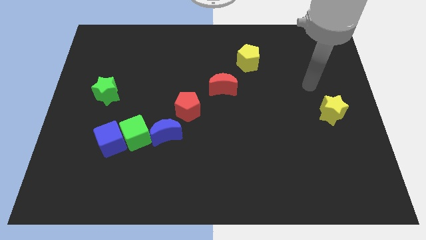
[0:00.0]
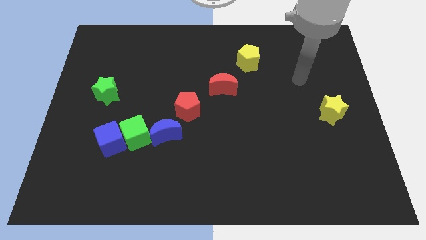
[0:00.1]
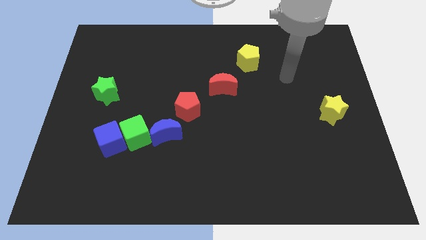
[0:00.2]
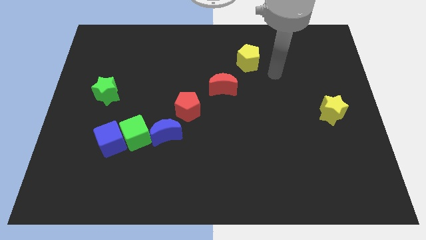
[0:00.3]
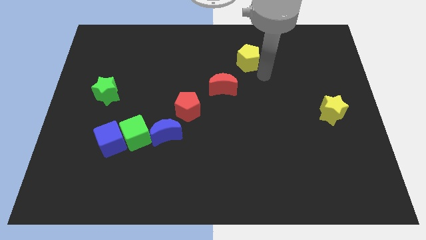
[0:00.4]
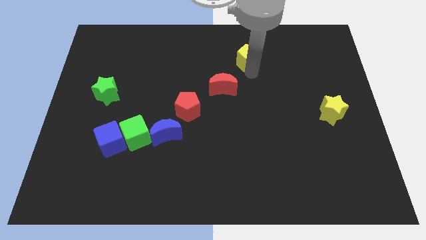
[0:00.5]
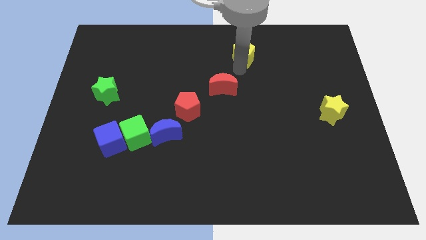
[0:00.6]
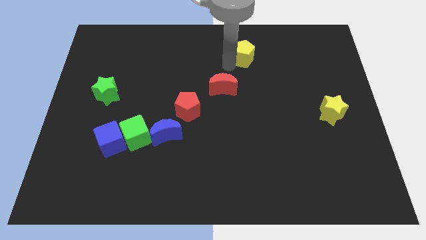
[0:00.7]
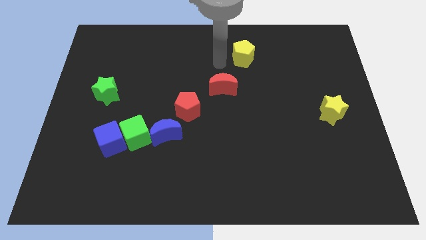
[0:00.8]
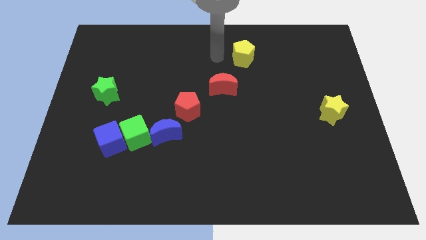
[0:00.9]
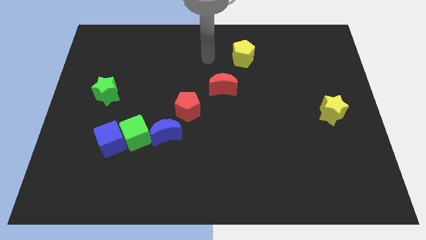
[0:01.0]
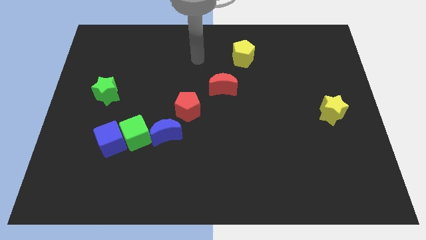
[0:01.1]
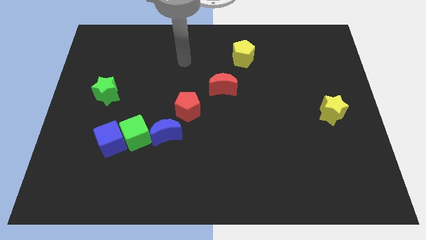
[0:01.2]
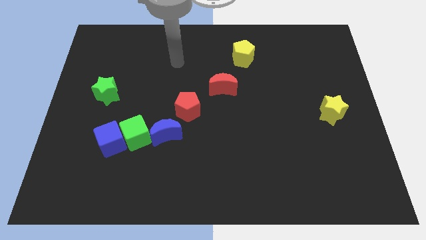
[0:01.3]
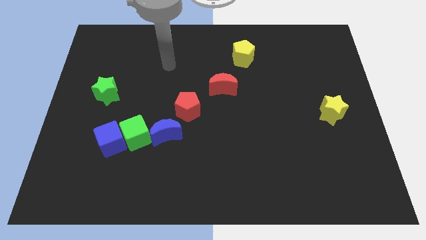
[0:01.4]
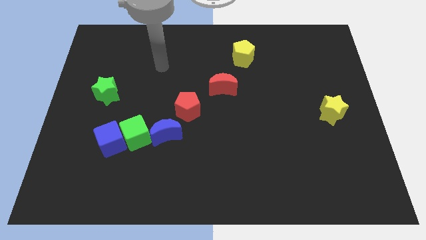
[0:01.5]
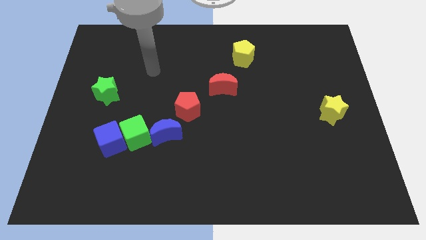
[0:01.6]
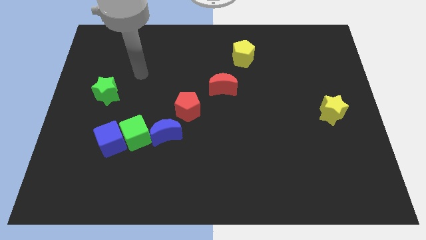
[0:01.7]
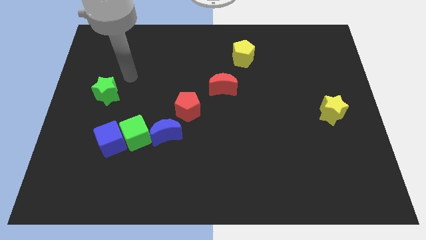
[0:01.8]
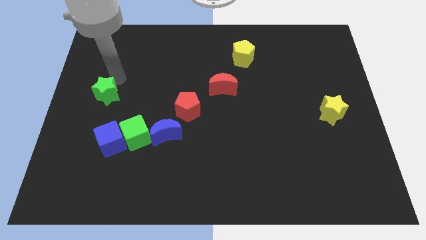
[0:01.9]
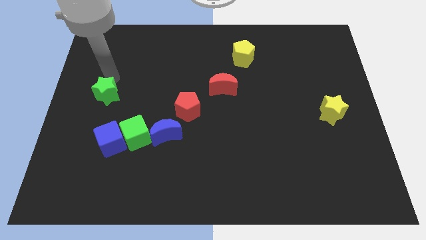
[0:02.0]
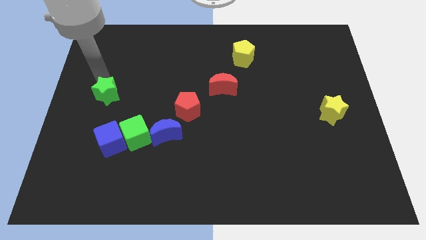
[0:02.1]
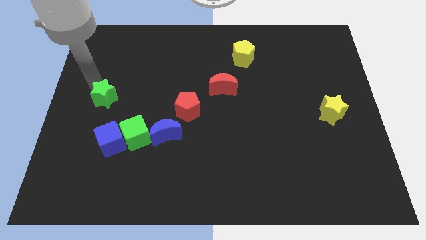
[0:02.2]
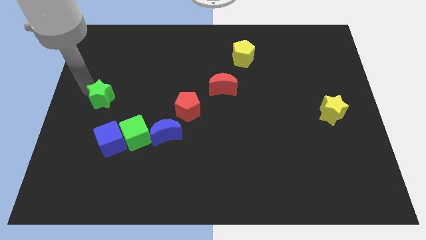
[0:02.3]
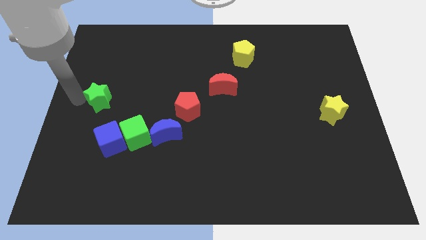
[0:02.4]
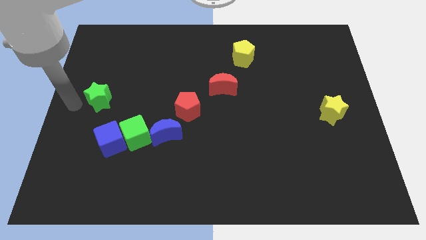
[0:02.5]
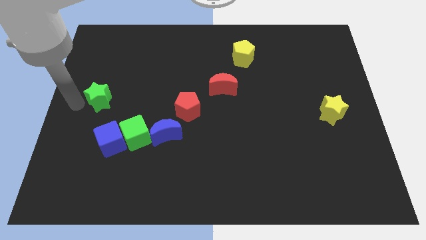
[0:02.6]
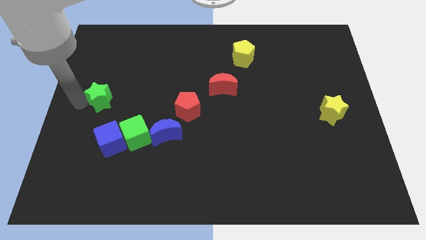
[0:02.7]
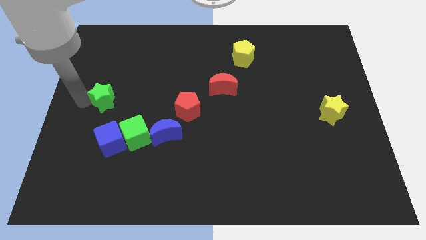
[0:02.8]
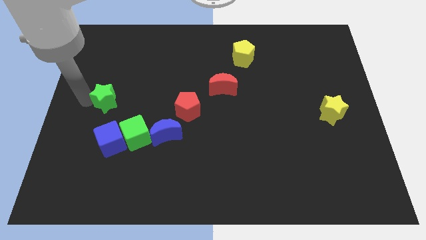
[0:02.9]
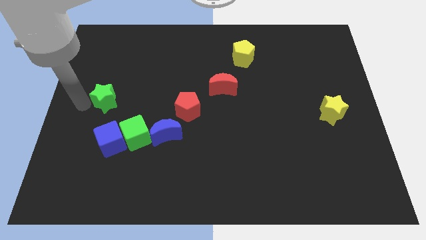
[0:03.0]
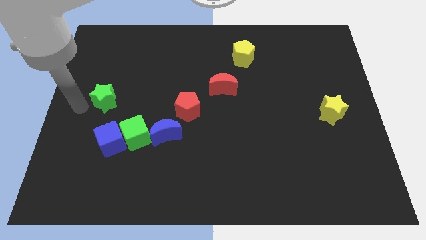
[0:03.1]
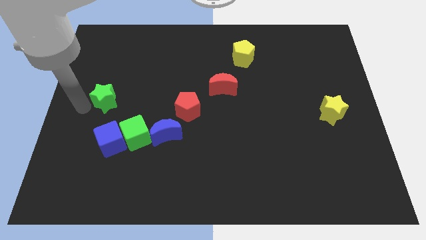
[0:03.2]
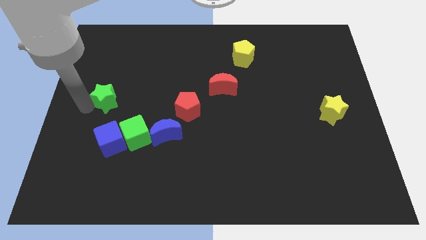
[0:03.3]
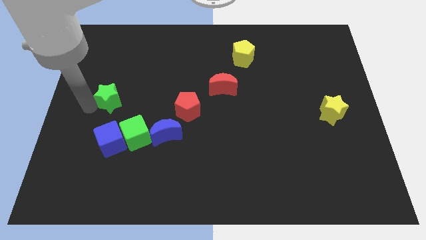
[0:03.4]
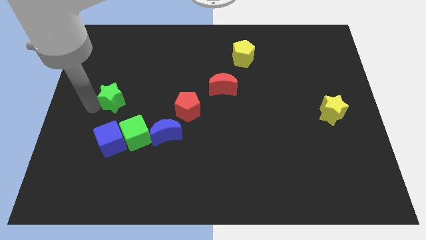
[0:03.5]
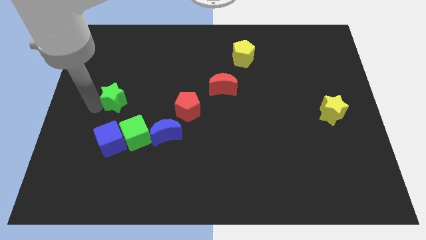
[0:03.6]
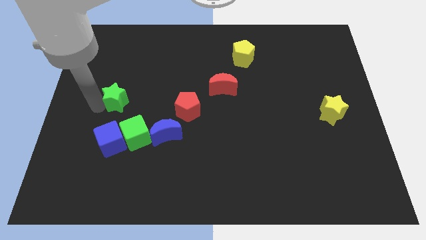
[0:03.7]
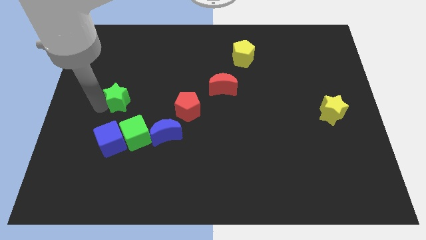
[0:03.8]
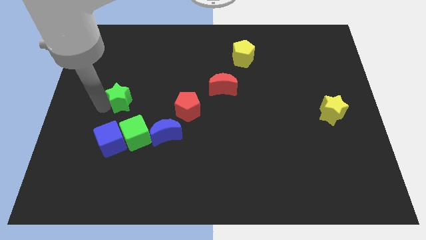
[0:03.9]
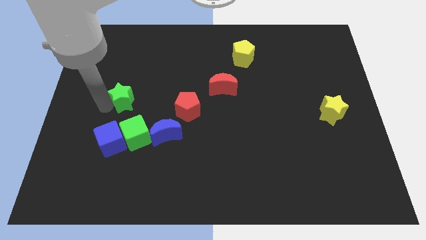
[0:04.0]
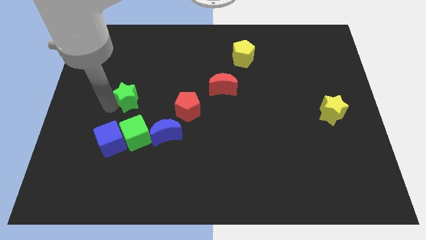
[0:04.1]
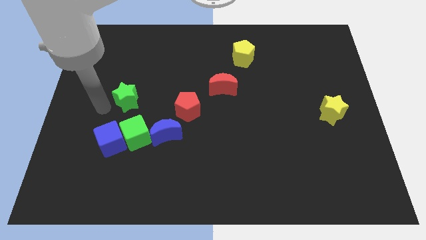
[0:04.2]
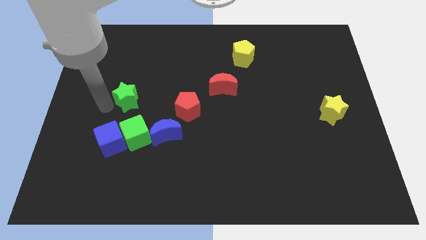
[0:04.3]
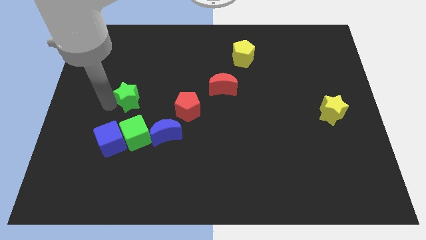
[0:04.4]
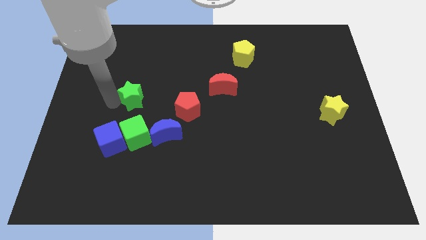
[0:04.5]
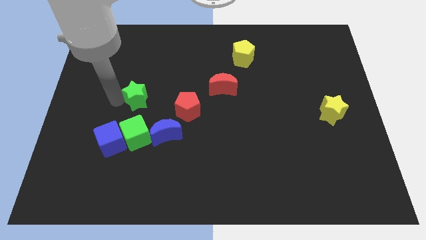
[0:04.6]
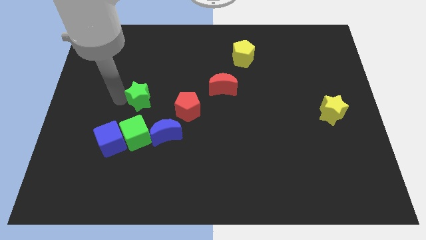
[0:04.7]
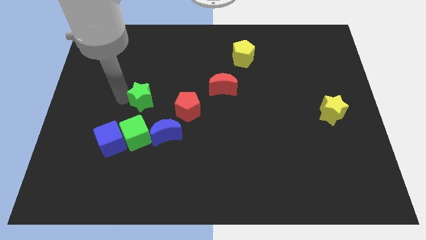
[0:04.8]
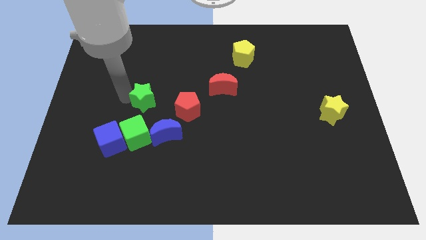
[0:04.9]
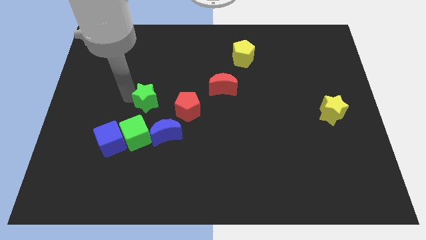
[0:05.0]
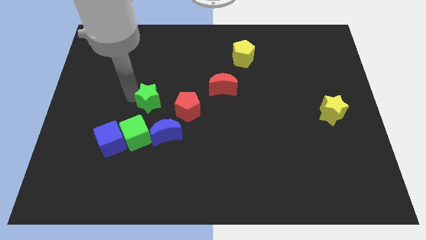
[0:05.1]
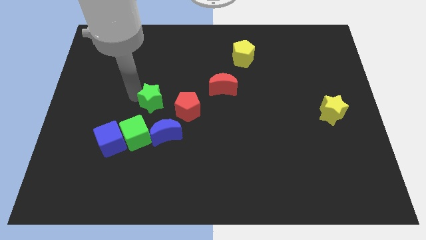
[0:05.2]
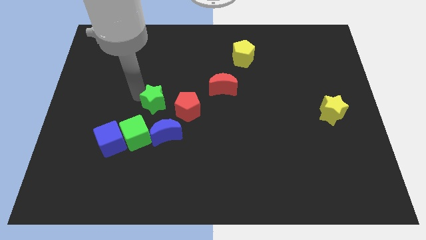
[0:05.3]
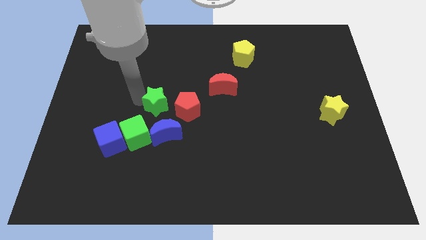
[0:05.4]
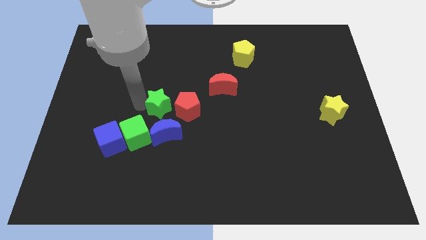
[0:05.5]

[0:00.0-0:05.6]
push the green star to the center of the board

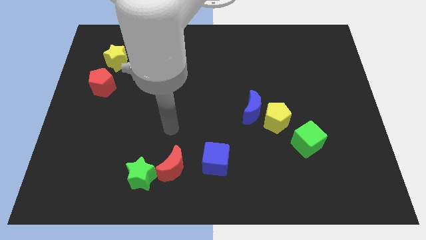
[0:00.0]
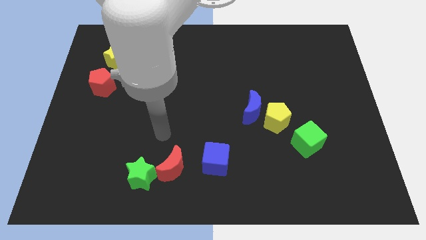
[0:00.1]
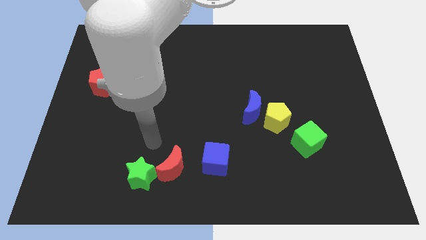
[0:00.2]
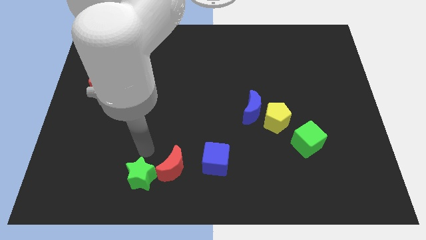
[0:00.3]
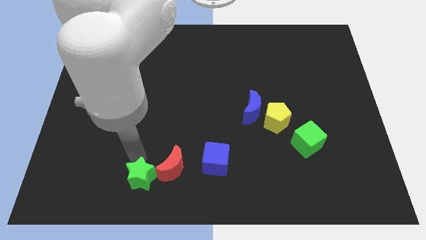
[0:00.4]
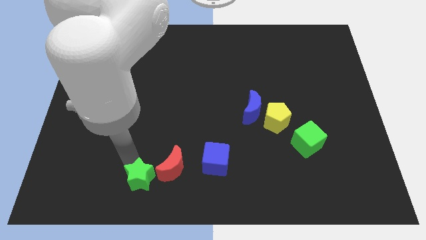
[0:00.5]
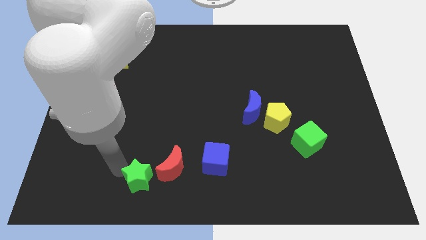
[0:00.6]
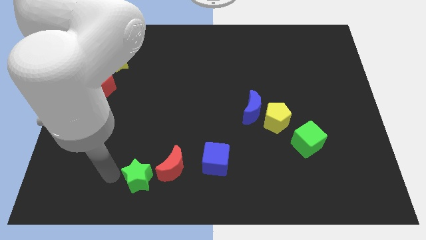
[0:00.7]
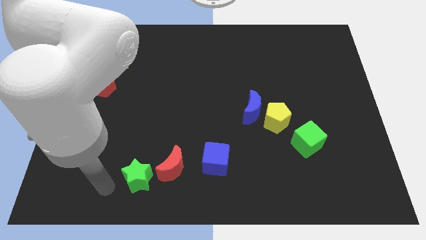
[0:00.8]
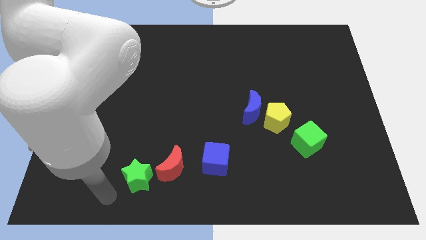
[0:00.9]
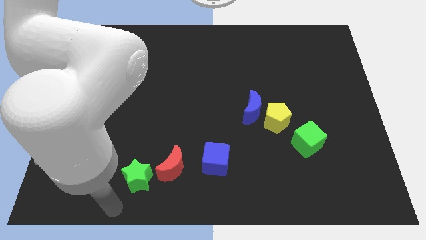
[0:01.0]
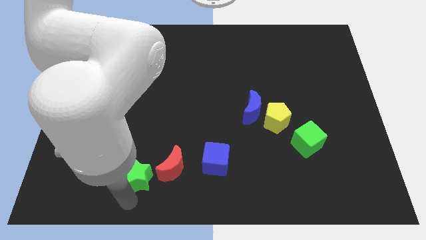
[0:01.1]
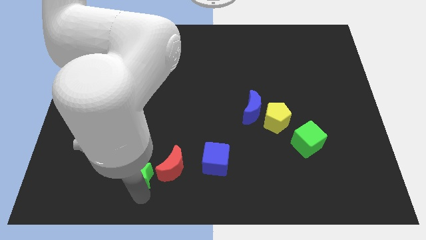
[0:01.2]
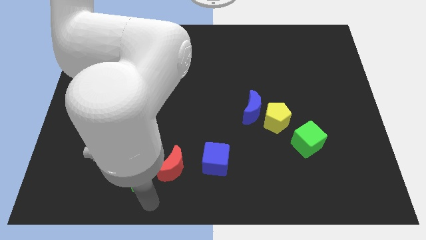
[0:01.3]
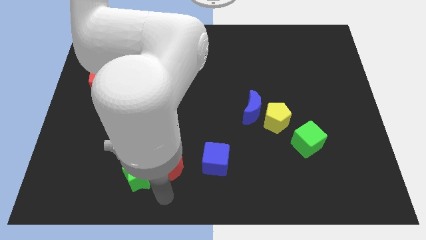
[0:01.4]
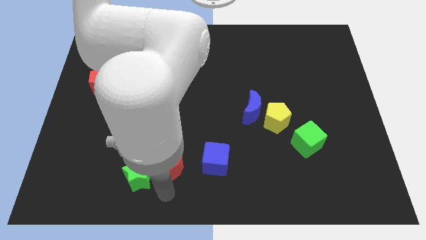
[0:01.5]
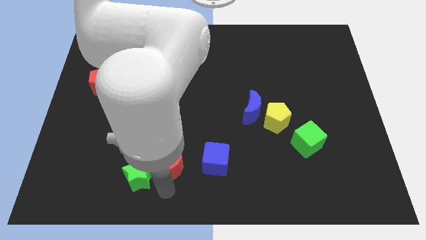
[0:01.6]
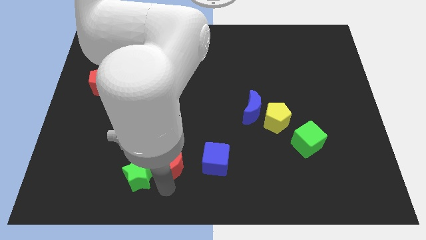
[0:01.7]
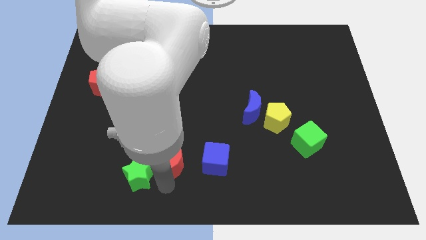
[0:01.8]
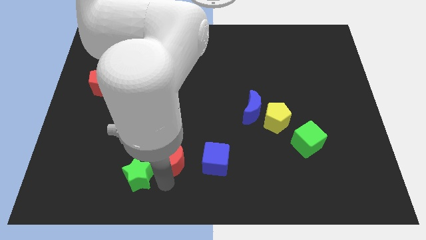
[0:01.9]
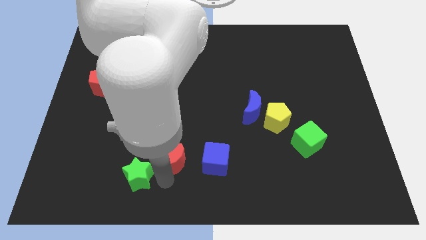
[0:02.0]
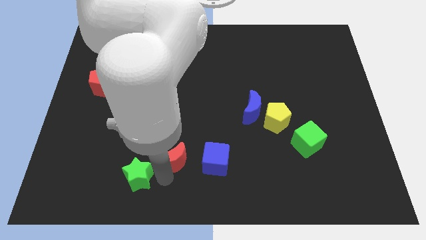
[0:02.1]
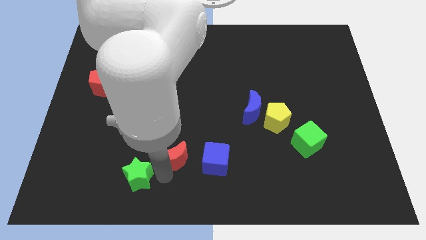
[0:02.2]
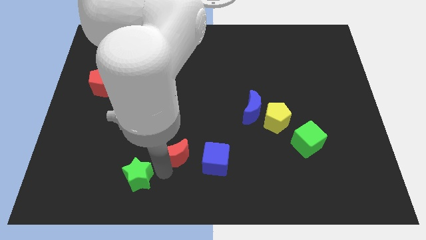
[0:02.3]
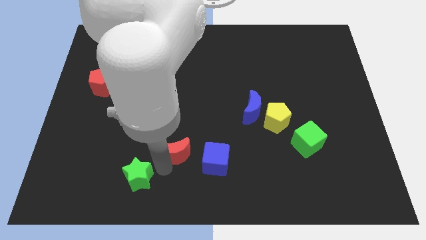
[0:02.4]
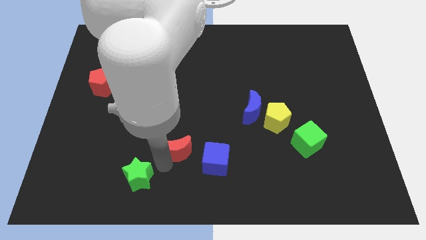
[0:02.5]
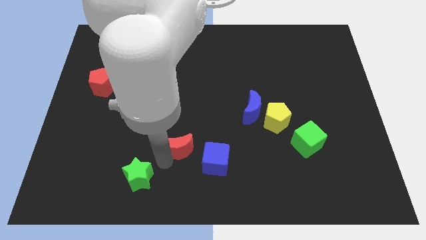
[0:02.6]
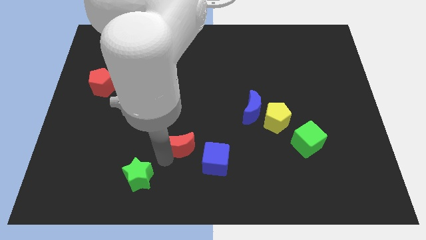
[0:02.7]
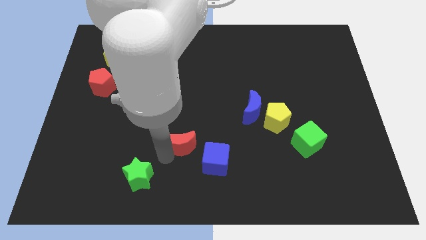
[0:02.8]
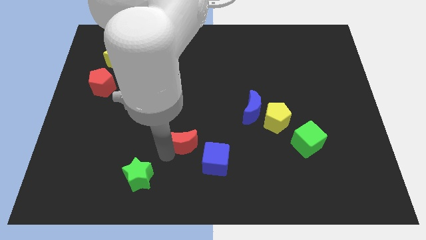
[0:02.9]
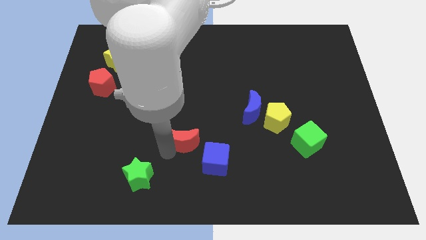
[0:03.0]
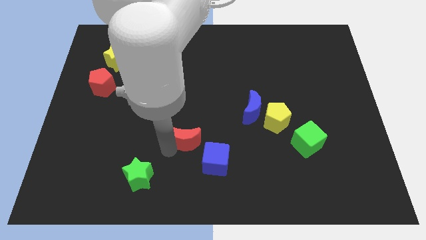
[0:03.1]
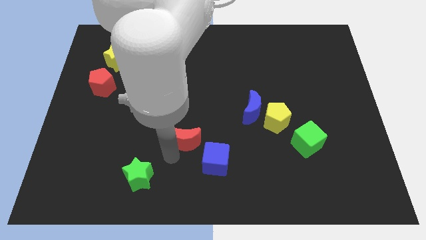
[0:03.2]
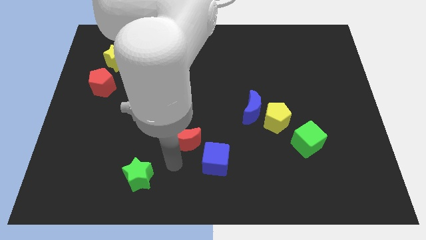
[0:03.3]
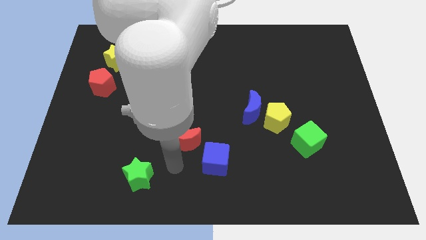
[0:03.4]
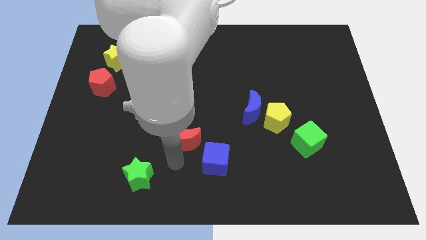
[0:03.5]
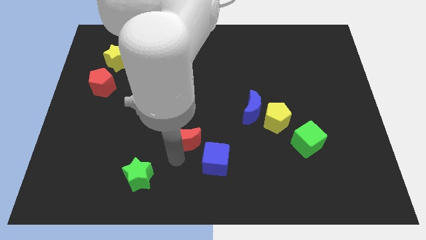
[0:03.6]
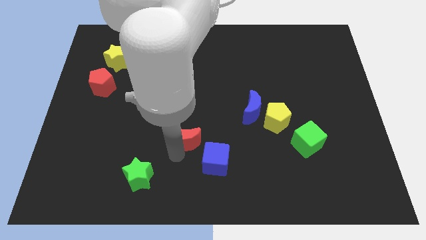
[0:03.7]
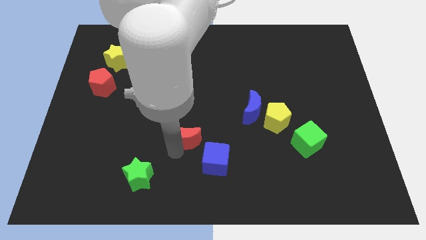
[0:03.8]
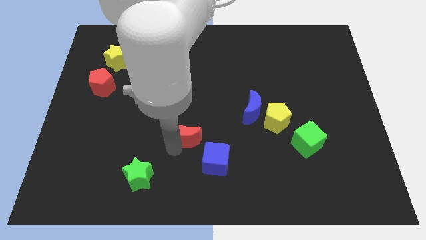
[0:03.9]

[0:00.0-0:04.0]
move the red moon to the center
